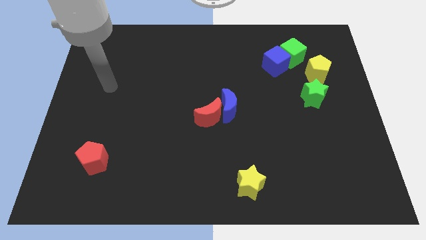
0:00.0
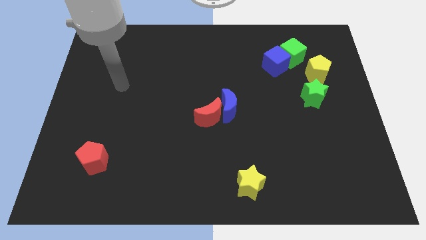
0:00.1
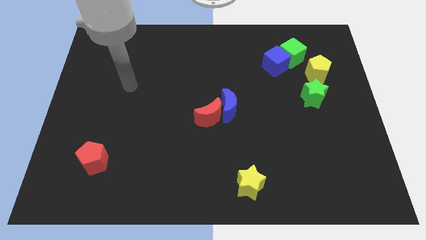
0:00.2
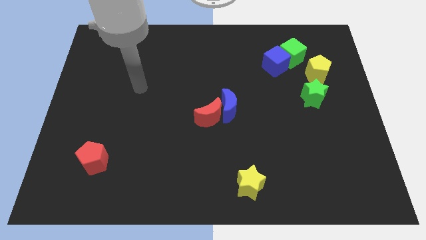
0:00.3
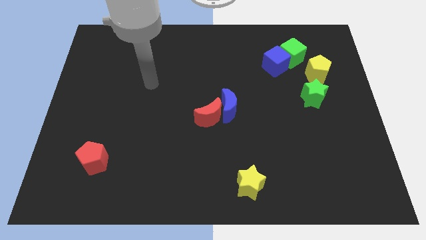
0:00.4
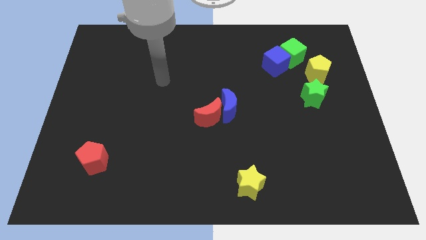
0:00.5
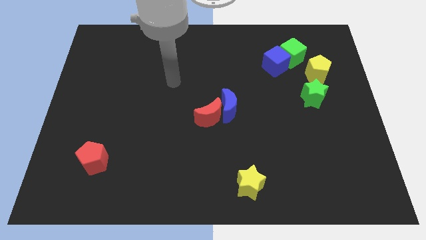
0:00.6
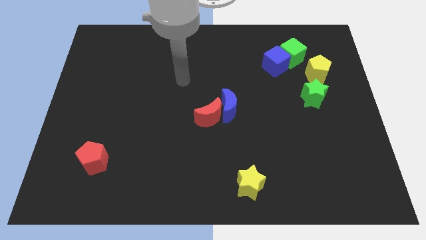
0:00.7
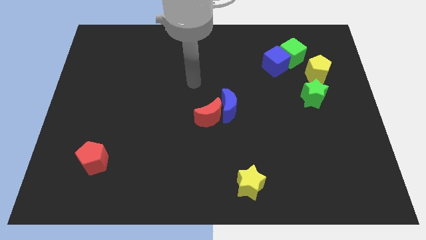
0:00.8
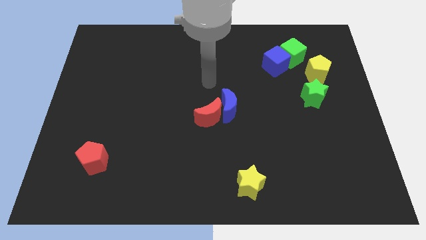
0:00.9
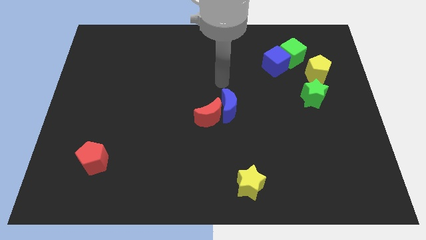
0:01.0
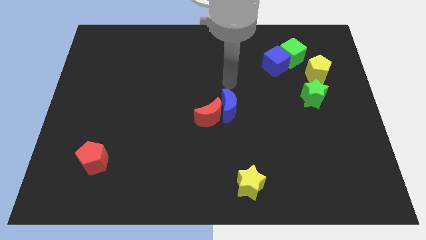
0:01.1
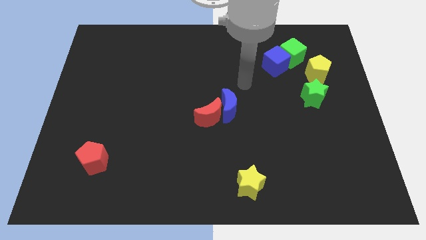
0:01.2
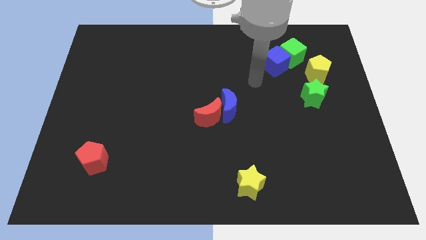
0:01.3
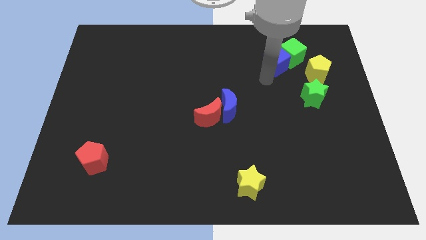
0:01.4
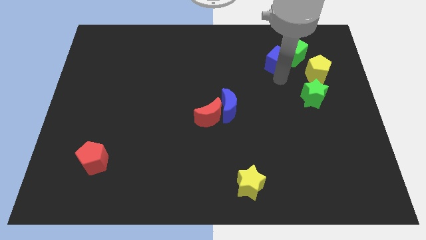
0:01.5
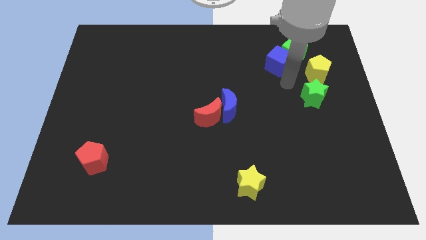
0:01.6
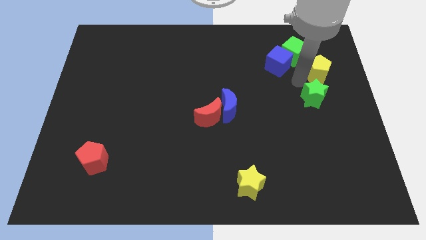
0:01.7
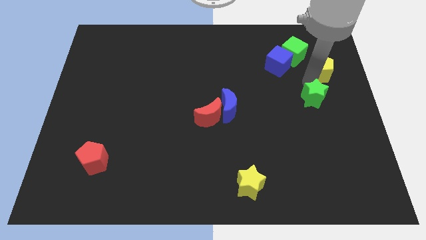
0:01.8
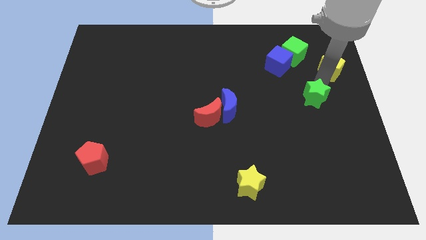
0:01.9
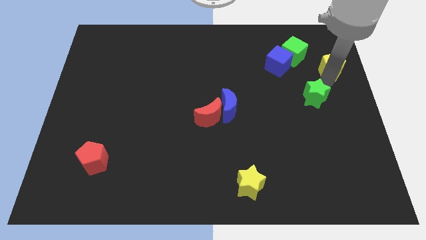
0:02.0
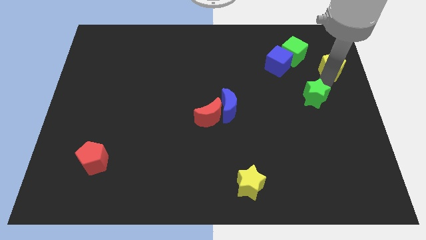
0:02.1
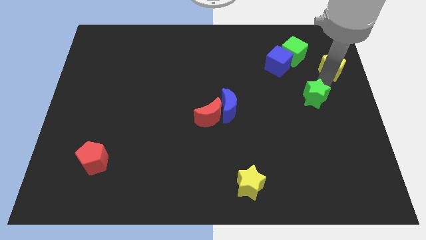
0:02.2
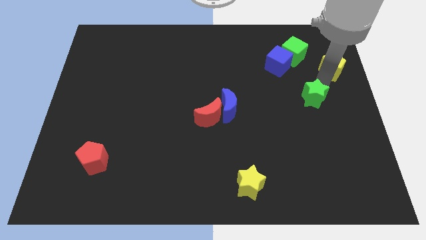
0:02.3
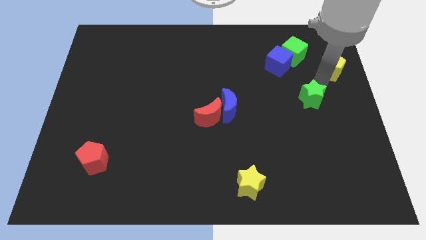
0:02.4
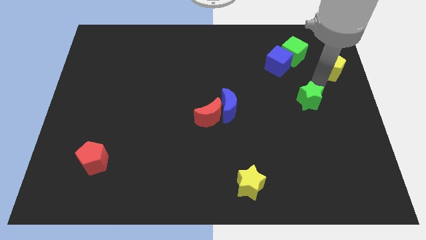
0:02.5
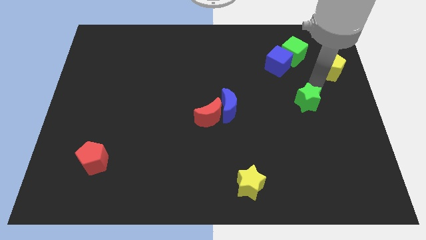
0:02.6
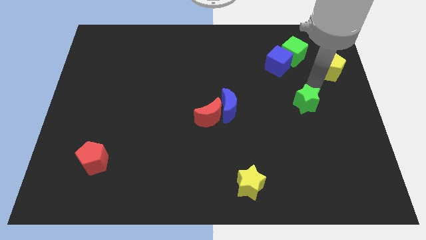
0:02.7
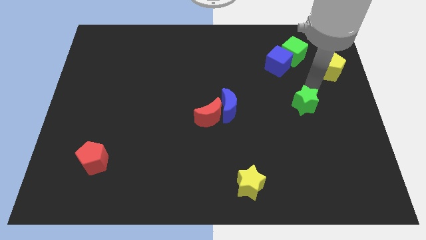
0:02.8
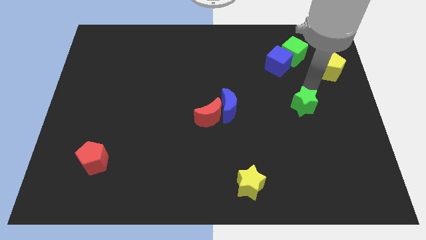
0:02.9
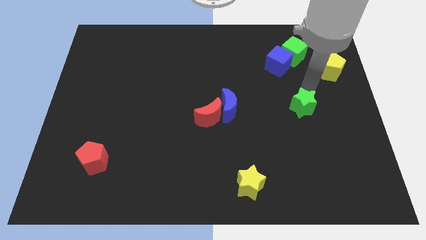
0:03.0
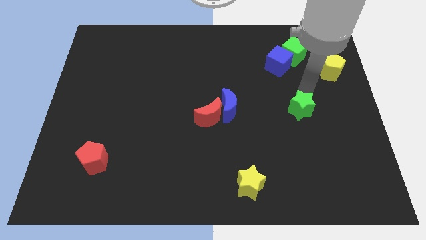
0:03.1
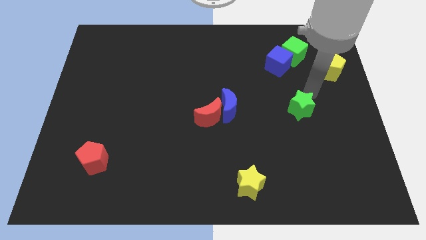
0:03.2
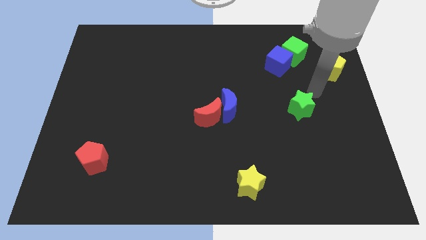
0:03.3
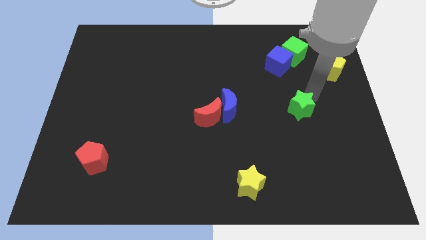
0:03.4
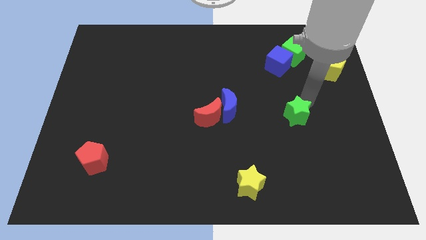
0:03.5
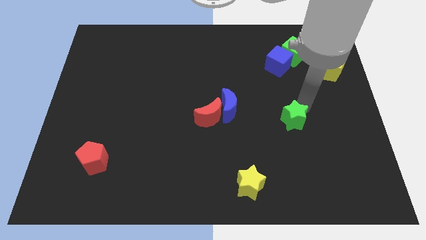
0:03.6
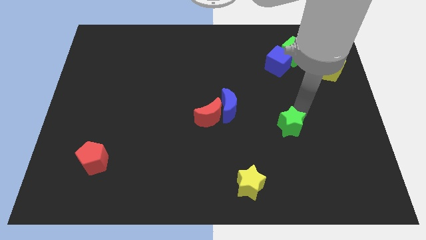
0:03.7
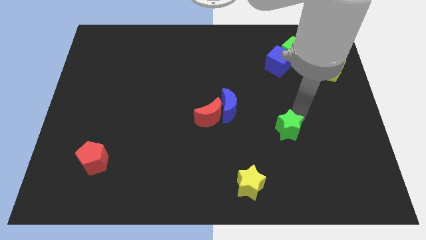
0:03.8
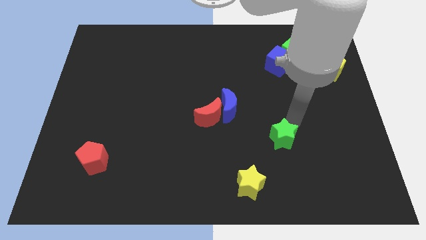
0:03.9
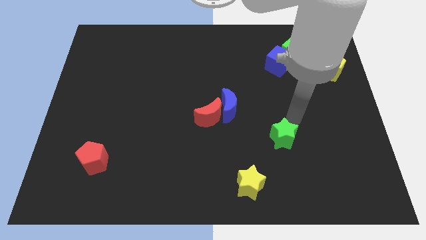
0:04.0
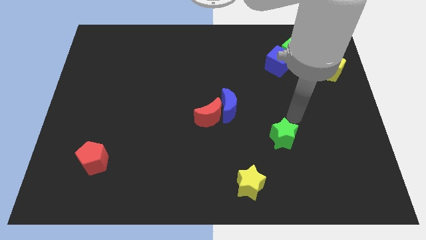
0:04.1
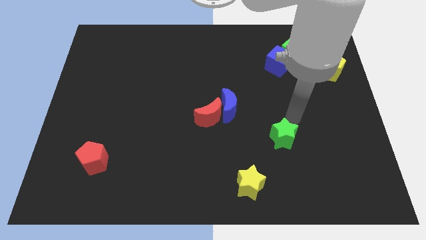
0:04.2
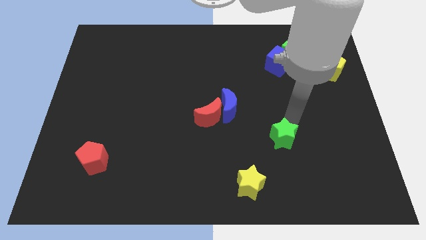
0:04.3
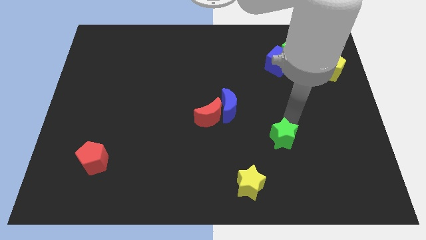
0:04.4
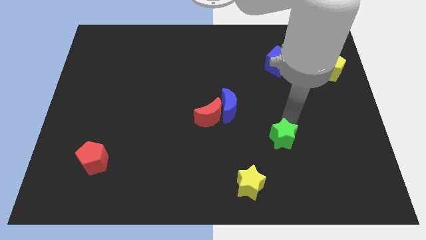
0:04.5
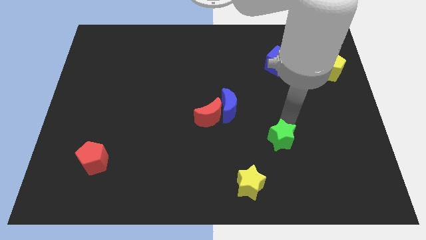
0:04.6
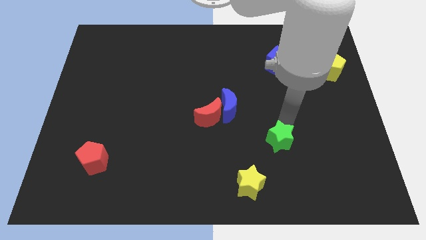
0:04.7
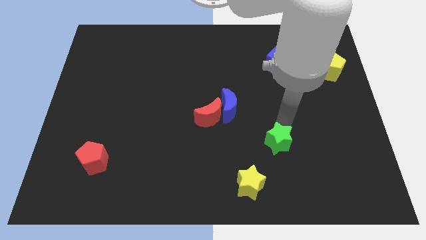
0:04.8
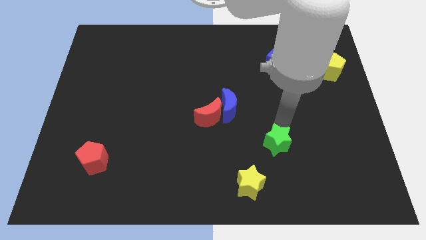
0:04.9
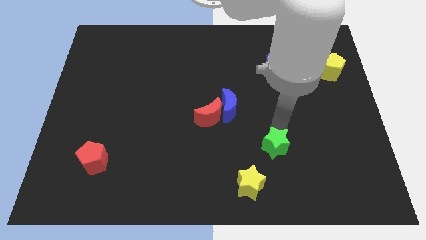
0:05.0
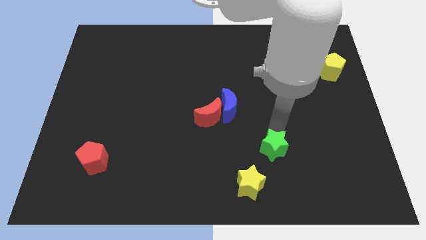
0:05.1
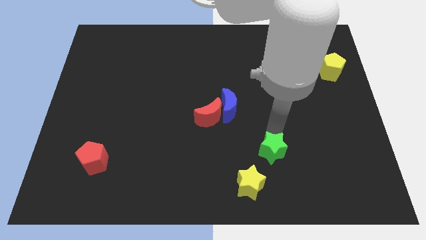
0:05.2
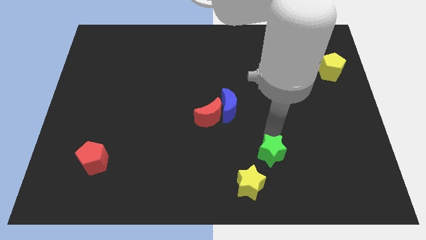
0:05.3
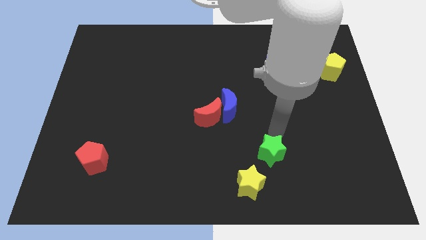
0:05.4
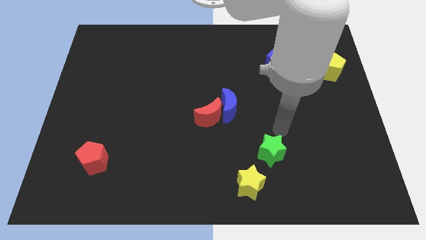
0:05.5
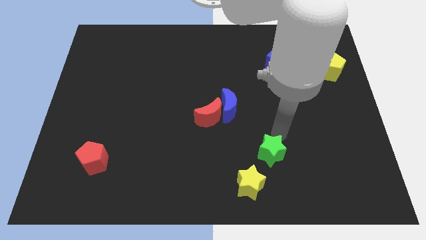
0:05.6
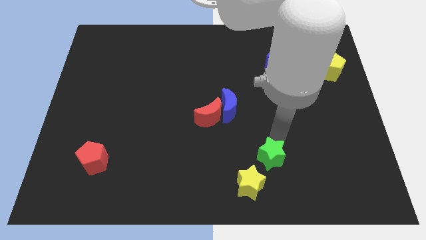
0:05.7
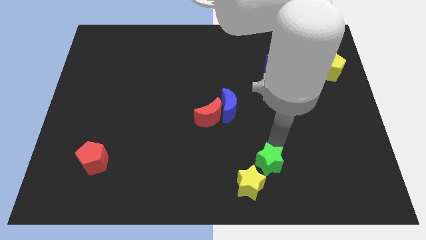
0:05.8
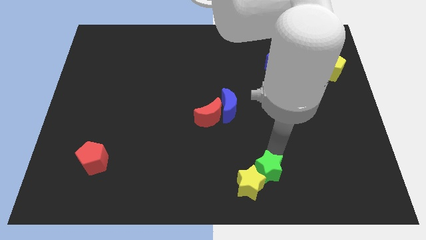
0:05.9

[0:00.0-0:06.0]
push the green star towards the yellow star
